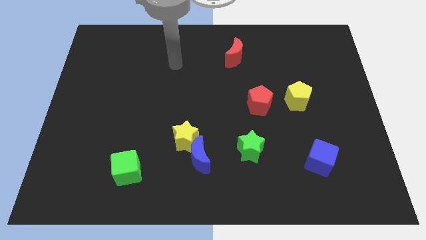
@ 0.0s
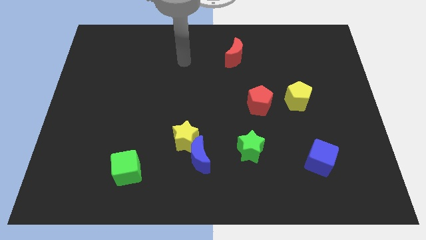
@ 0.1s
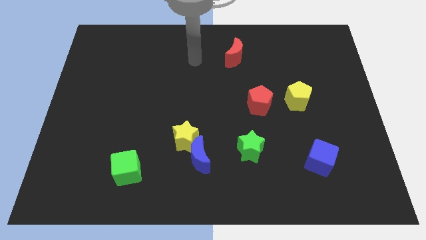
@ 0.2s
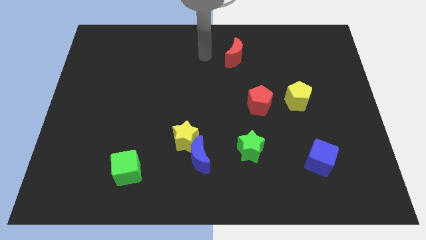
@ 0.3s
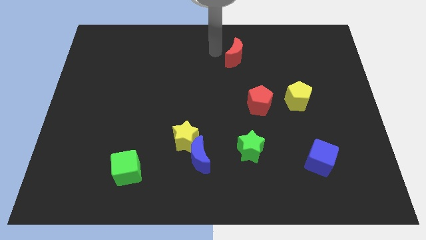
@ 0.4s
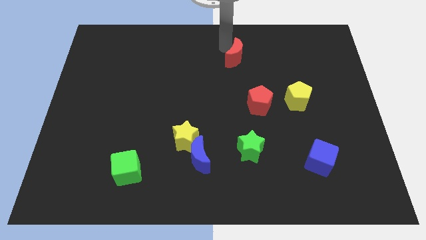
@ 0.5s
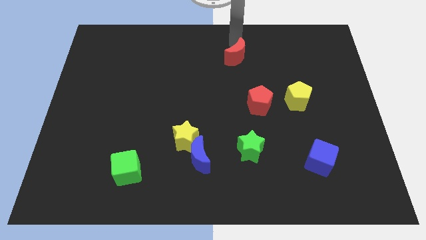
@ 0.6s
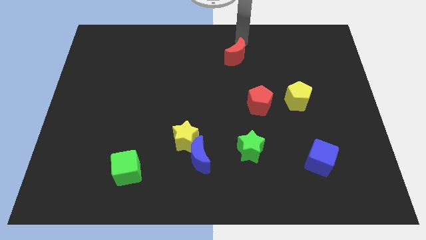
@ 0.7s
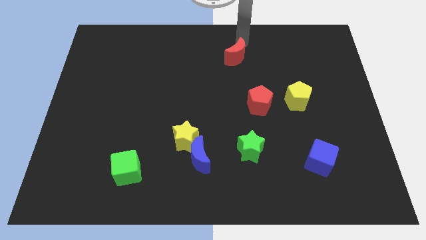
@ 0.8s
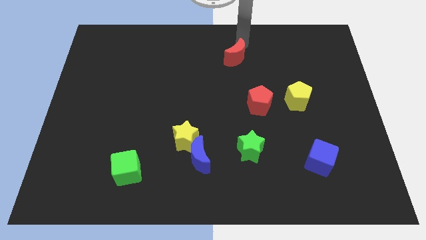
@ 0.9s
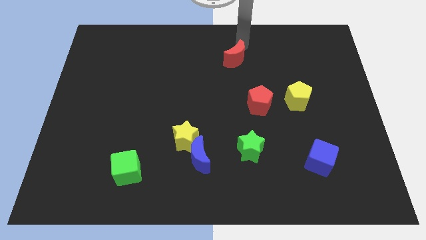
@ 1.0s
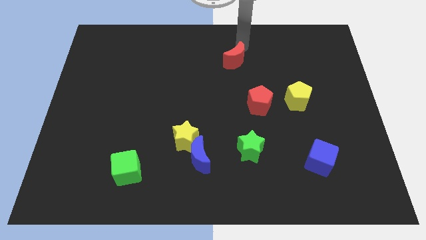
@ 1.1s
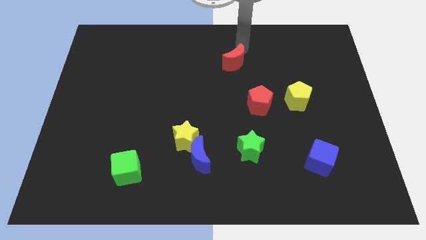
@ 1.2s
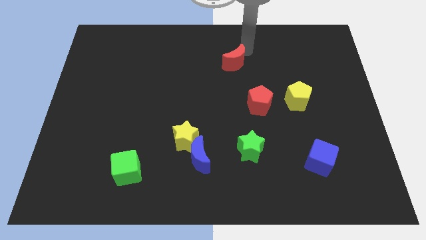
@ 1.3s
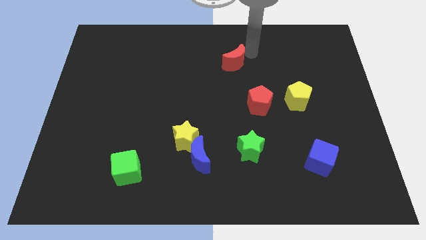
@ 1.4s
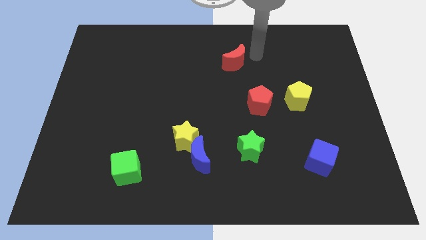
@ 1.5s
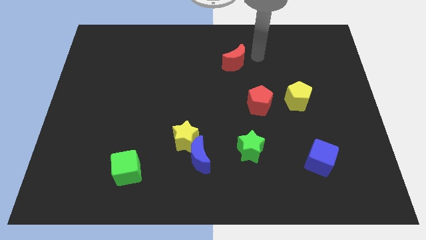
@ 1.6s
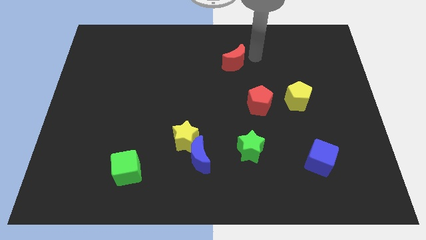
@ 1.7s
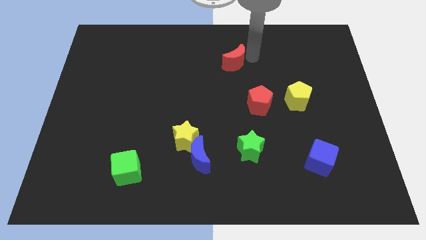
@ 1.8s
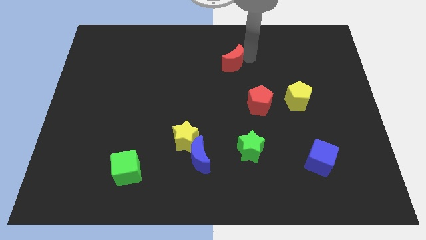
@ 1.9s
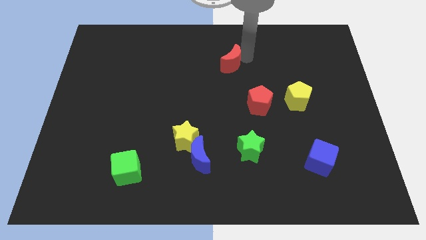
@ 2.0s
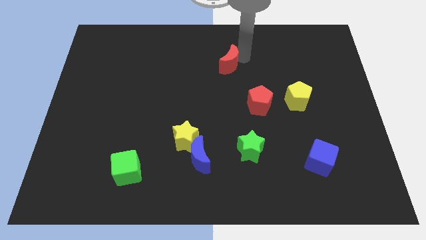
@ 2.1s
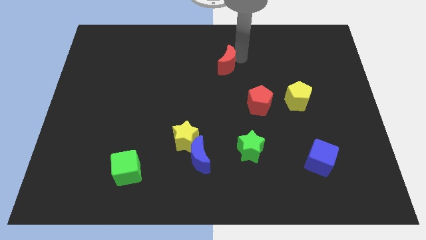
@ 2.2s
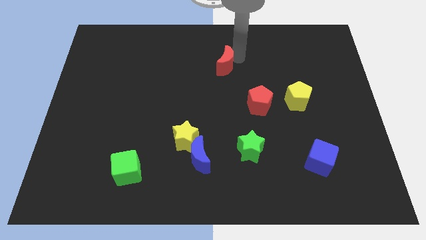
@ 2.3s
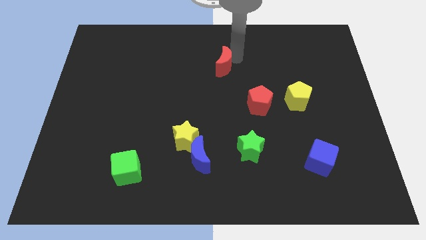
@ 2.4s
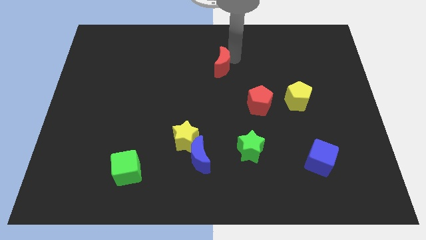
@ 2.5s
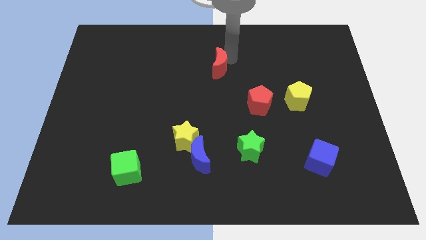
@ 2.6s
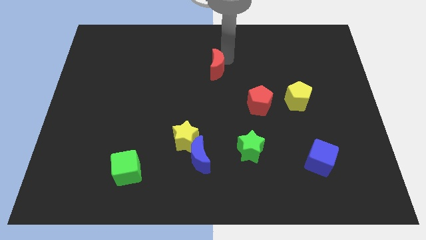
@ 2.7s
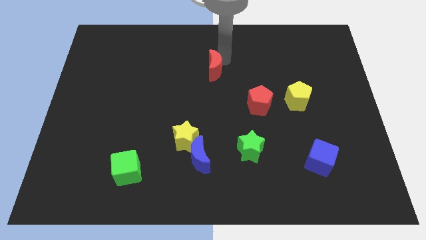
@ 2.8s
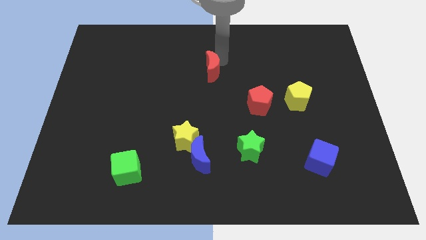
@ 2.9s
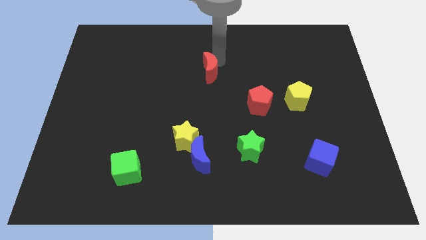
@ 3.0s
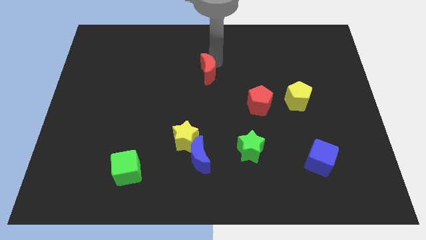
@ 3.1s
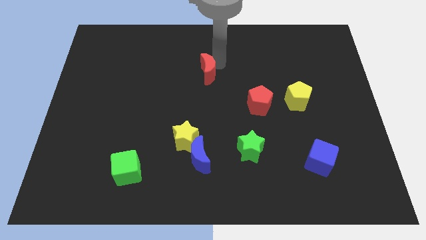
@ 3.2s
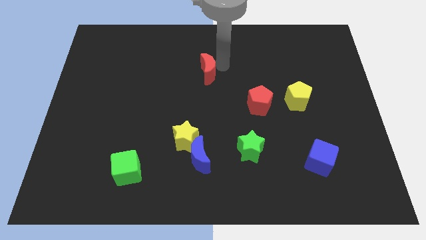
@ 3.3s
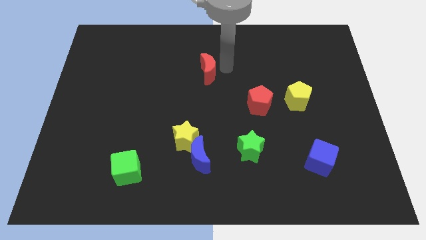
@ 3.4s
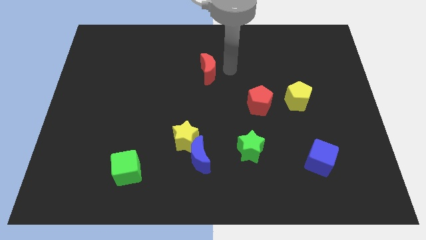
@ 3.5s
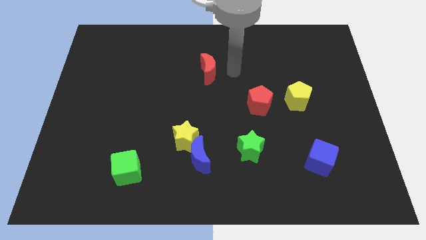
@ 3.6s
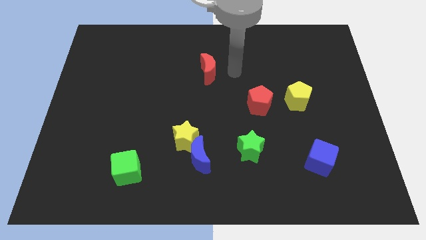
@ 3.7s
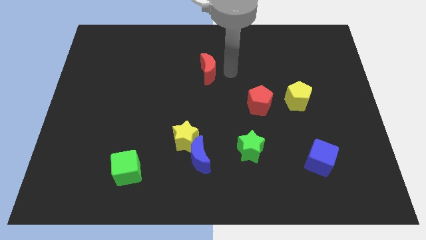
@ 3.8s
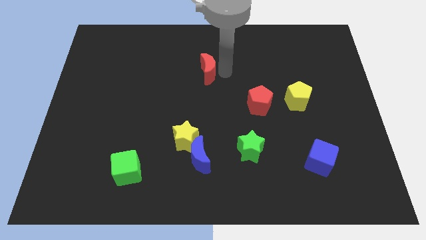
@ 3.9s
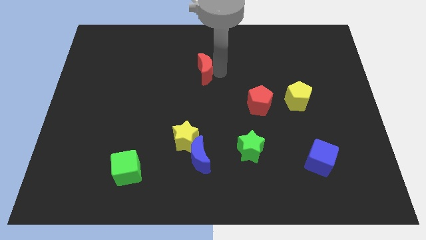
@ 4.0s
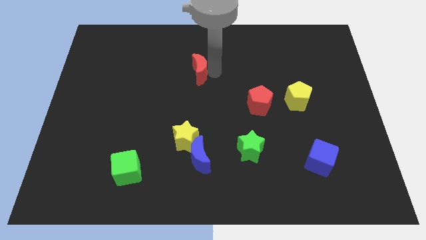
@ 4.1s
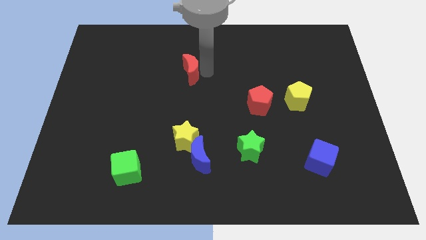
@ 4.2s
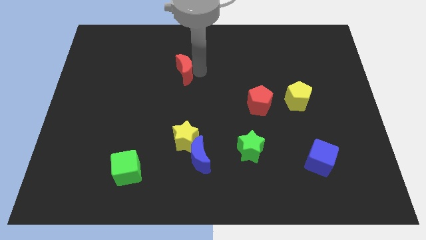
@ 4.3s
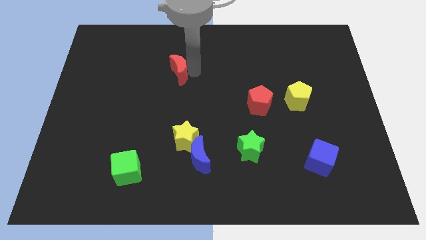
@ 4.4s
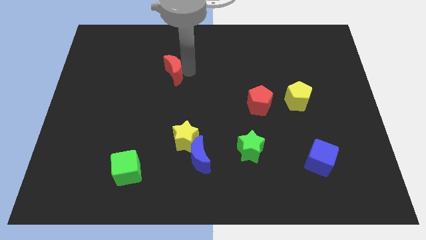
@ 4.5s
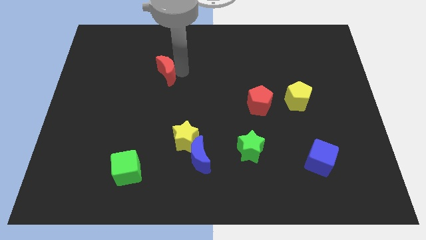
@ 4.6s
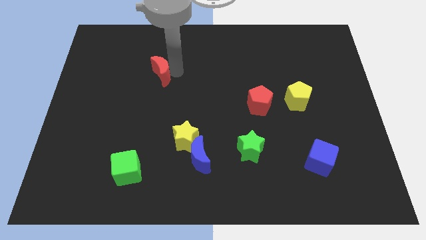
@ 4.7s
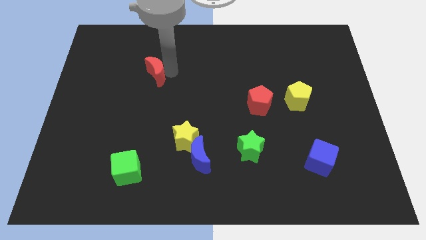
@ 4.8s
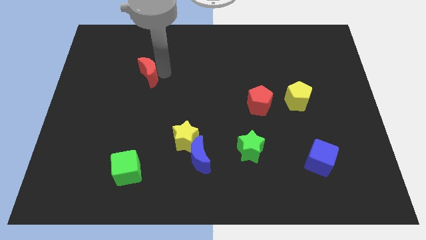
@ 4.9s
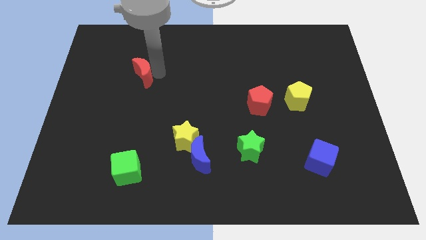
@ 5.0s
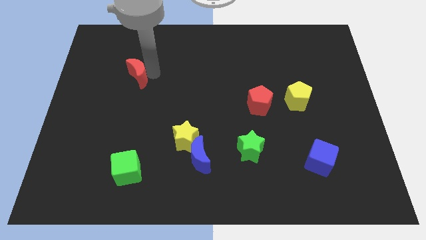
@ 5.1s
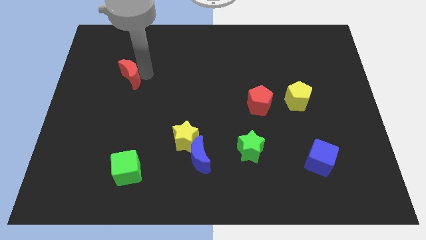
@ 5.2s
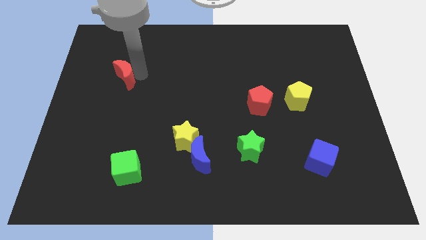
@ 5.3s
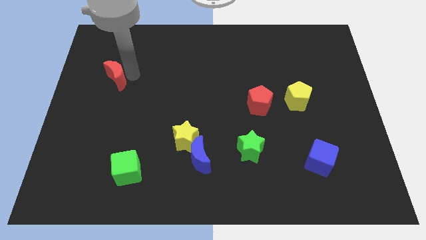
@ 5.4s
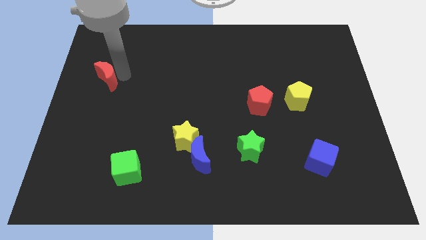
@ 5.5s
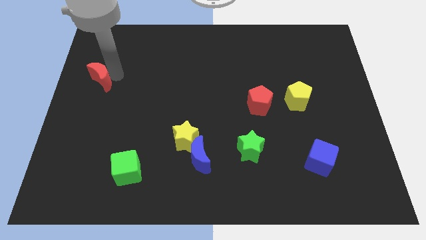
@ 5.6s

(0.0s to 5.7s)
put the red moon to the center left

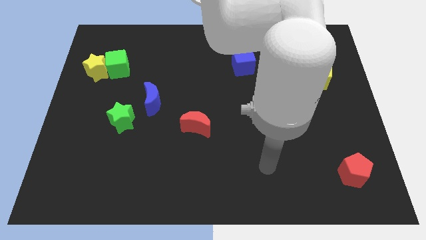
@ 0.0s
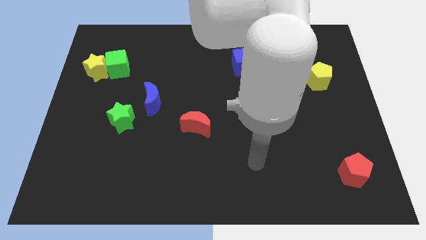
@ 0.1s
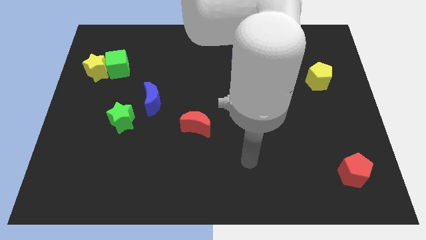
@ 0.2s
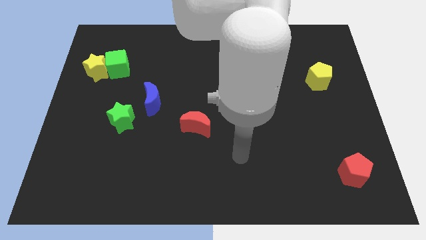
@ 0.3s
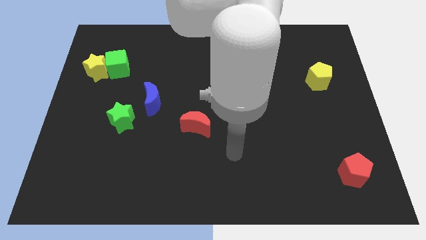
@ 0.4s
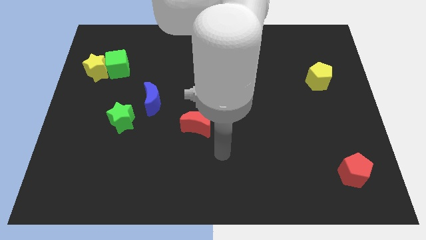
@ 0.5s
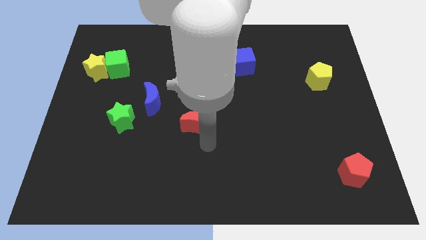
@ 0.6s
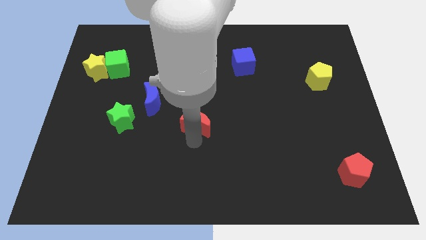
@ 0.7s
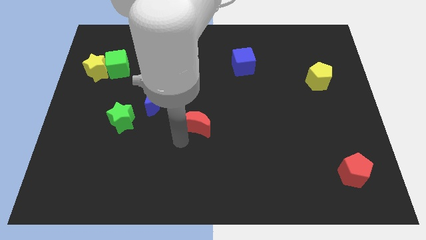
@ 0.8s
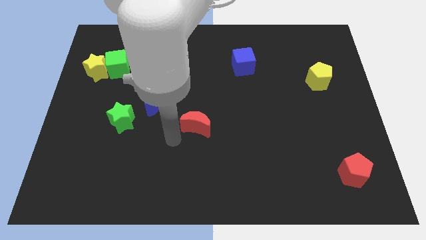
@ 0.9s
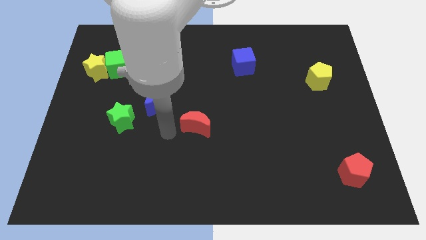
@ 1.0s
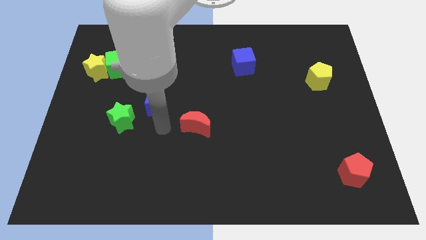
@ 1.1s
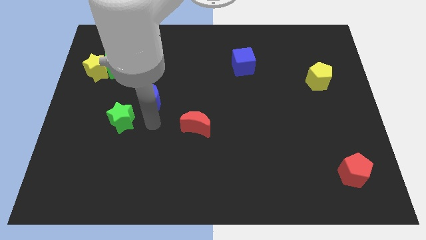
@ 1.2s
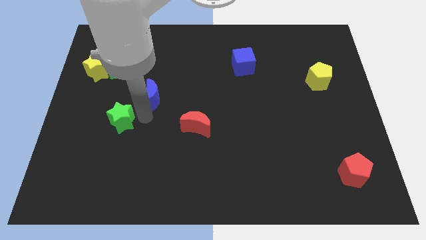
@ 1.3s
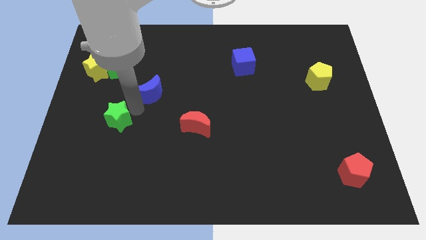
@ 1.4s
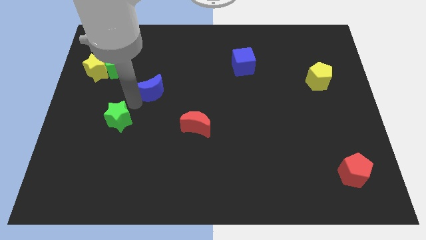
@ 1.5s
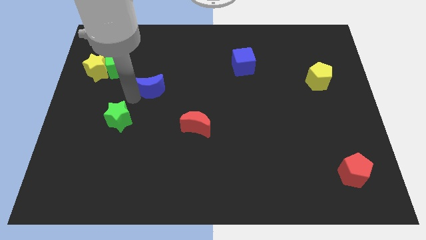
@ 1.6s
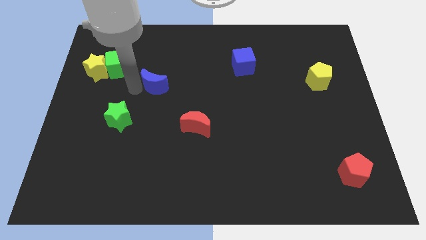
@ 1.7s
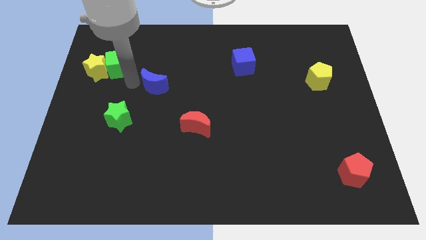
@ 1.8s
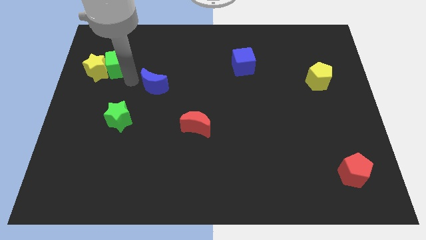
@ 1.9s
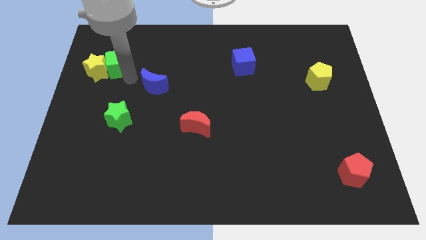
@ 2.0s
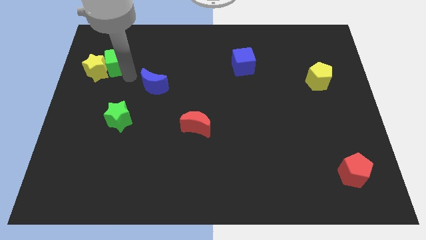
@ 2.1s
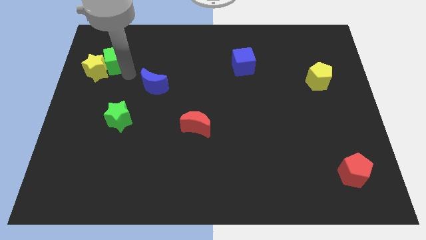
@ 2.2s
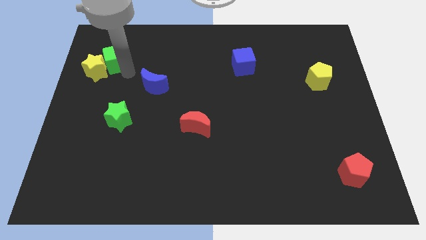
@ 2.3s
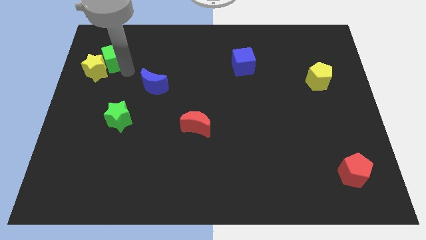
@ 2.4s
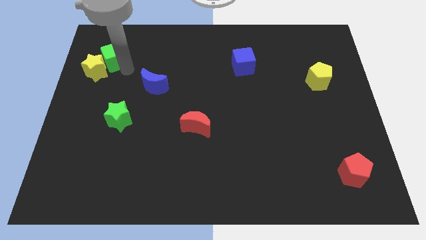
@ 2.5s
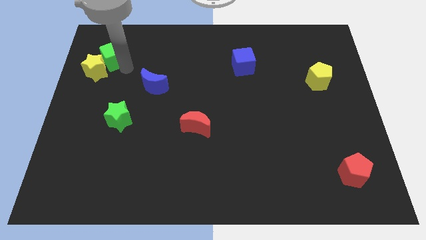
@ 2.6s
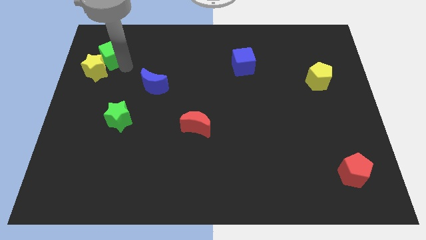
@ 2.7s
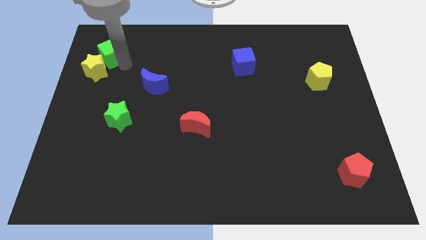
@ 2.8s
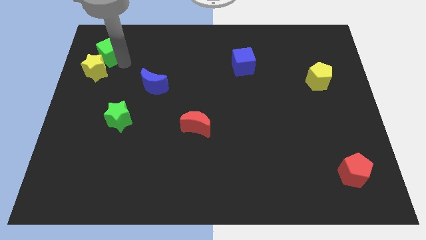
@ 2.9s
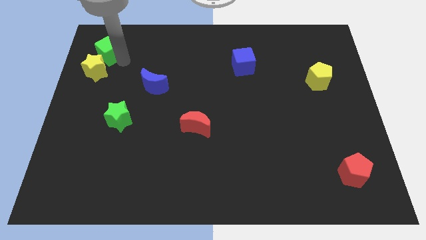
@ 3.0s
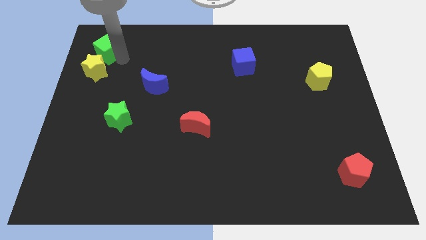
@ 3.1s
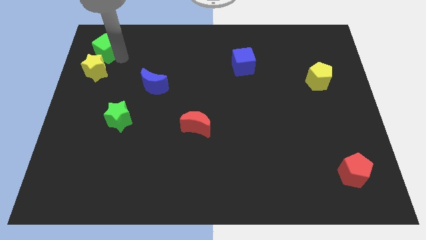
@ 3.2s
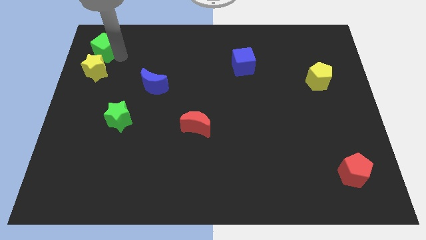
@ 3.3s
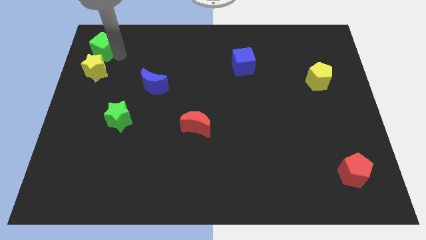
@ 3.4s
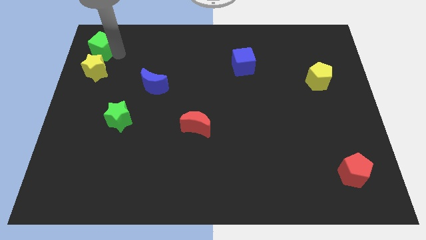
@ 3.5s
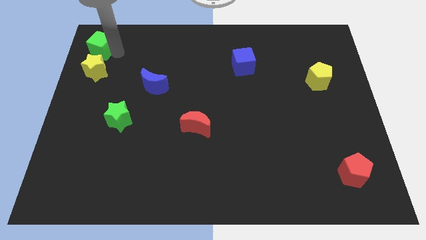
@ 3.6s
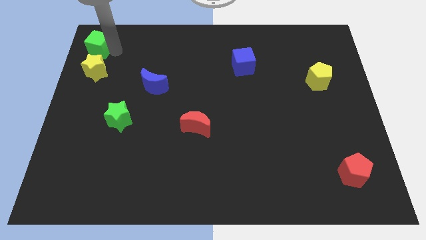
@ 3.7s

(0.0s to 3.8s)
push the green cube to the top left corner
